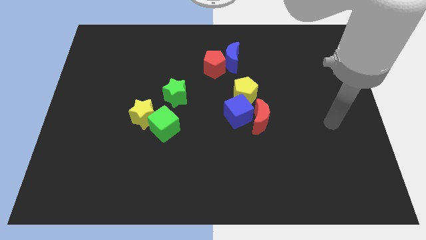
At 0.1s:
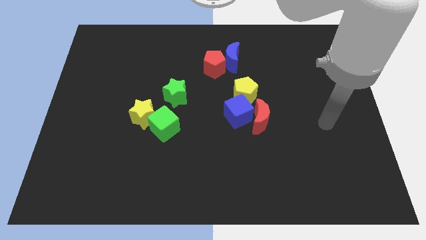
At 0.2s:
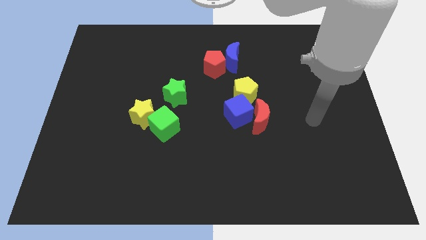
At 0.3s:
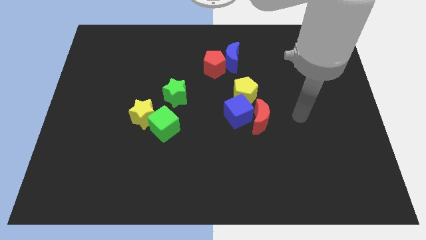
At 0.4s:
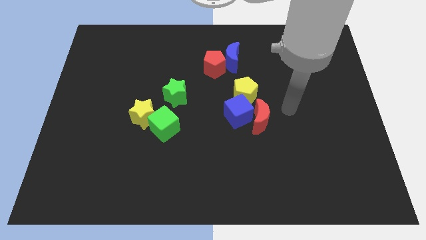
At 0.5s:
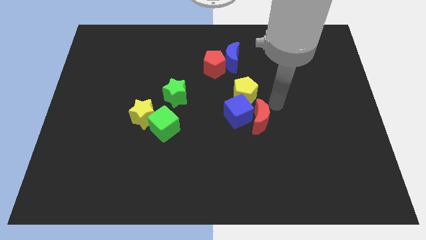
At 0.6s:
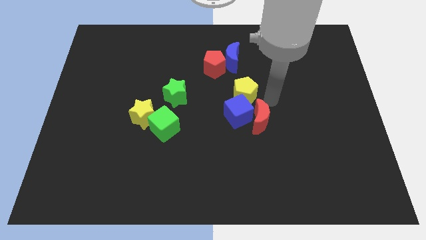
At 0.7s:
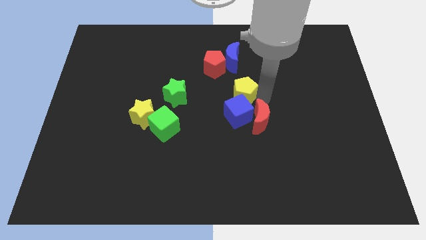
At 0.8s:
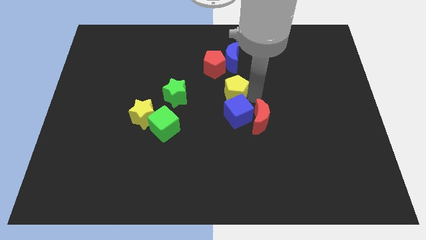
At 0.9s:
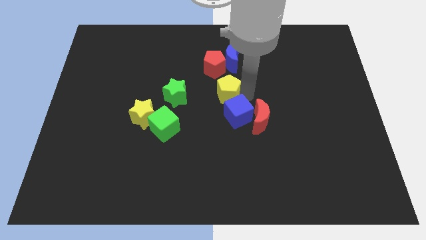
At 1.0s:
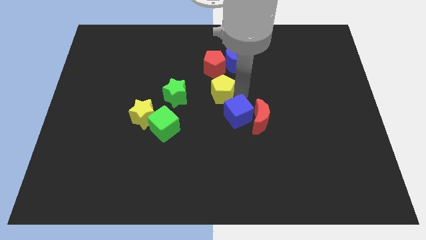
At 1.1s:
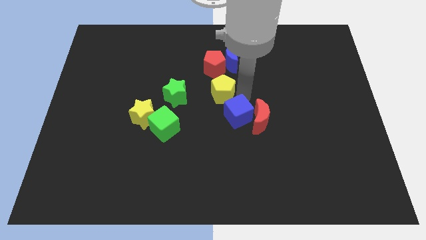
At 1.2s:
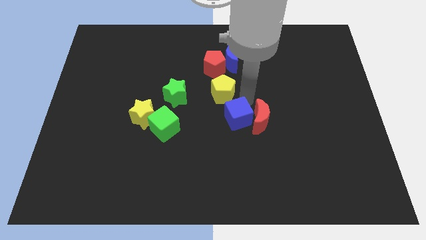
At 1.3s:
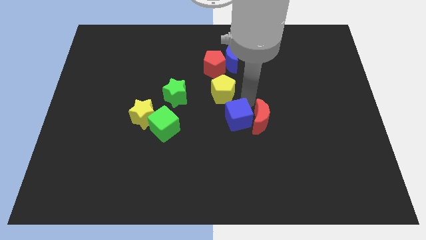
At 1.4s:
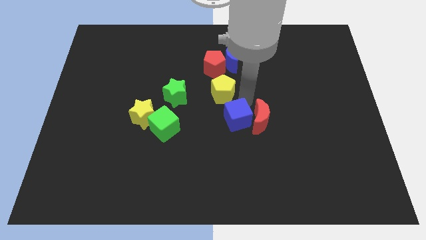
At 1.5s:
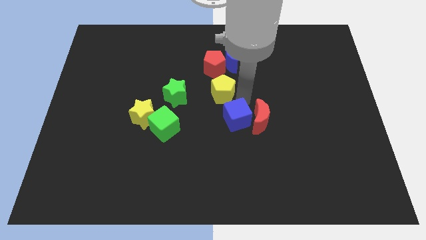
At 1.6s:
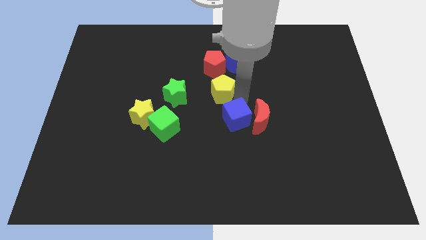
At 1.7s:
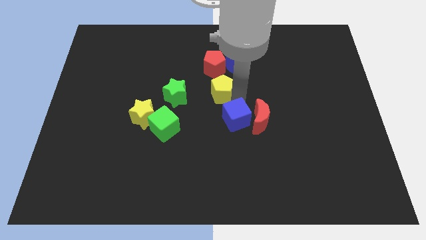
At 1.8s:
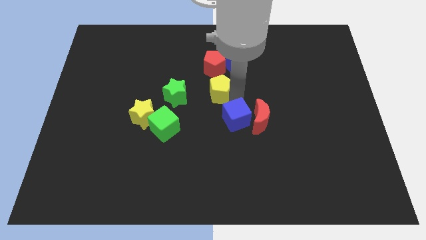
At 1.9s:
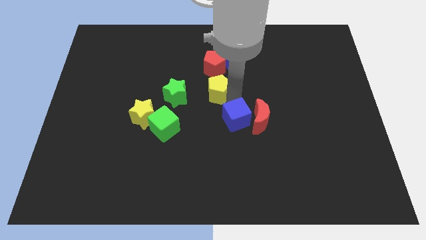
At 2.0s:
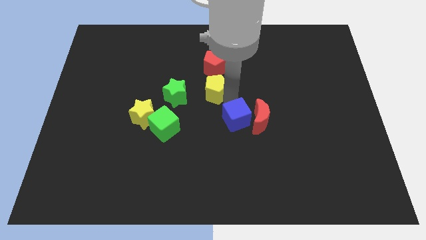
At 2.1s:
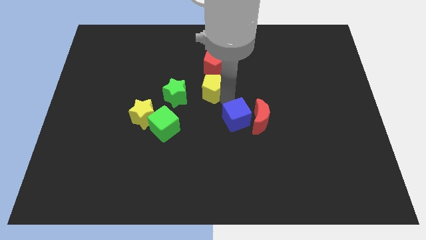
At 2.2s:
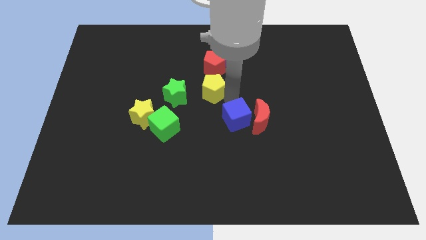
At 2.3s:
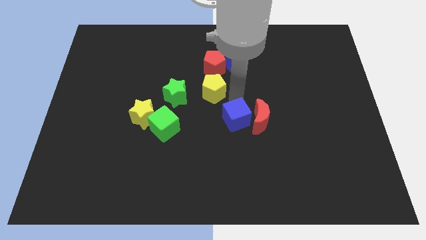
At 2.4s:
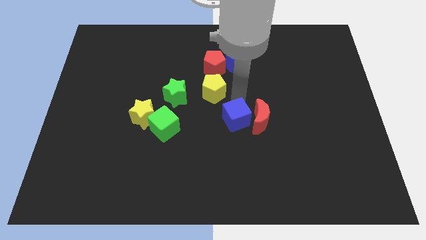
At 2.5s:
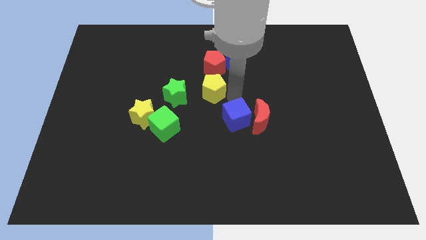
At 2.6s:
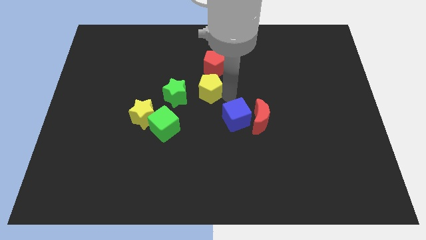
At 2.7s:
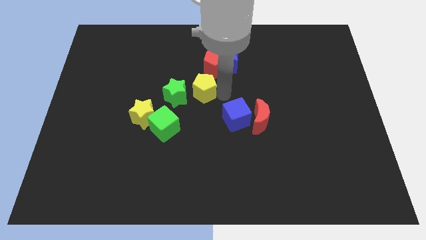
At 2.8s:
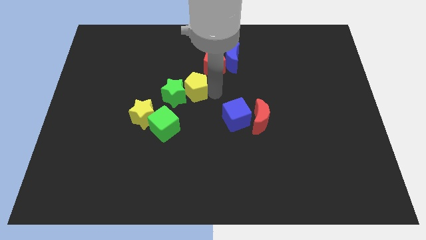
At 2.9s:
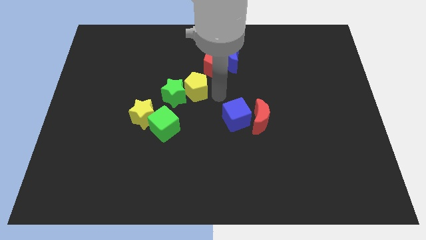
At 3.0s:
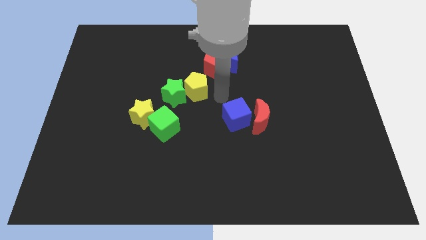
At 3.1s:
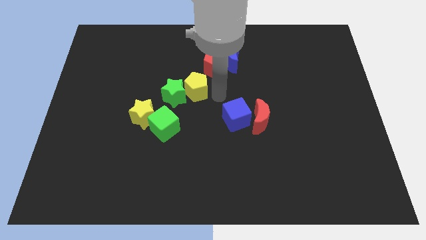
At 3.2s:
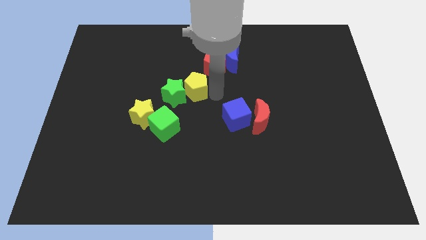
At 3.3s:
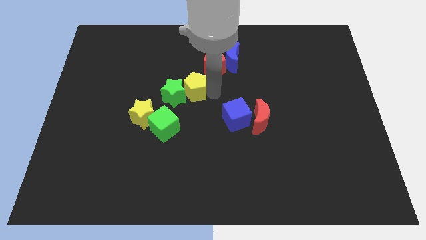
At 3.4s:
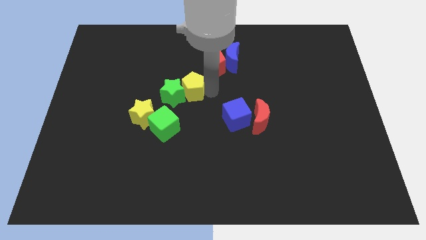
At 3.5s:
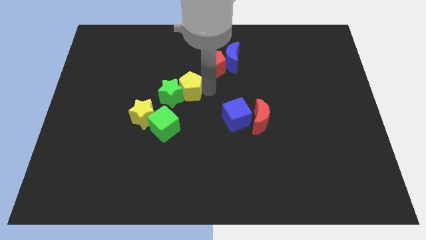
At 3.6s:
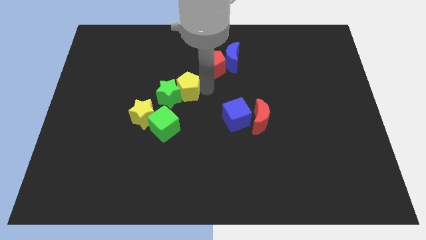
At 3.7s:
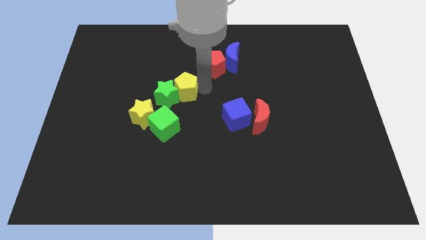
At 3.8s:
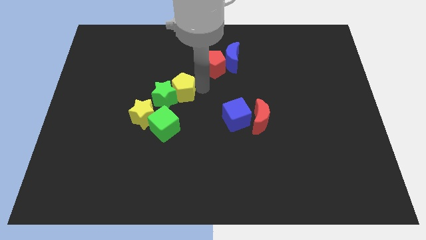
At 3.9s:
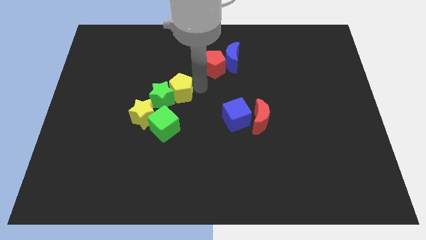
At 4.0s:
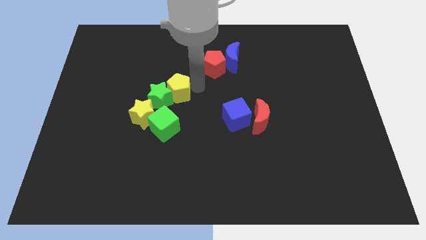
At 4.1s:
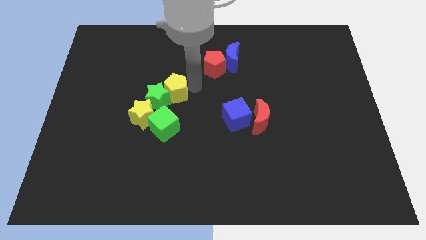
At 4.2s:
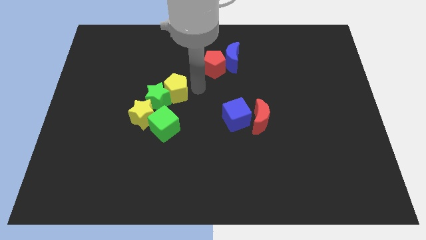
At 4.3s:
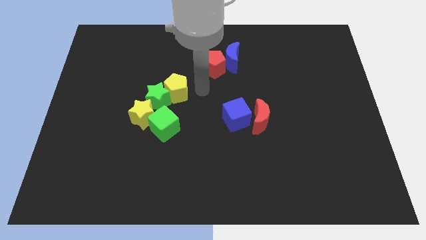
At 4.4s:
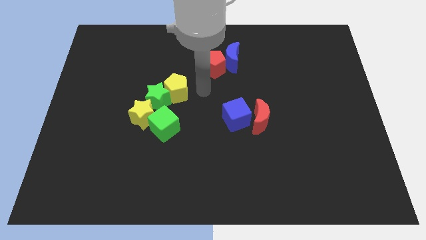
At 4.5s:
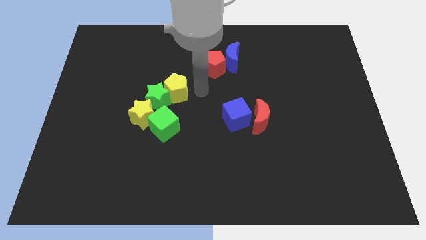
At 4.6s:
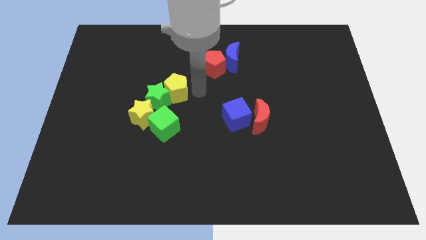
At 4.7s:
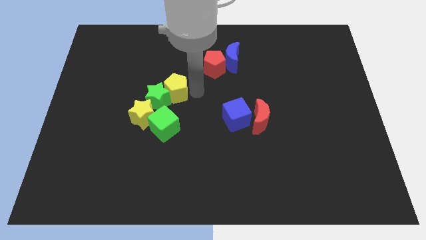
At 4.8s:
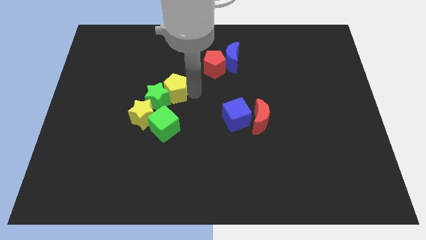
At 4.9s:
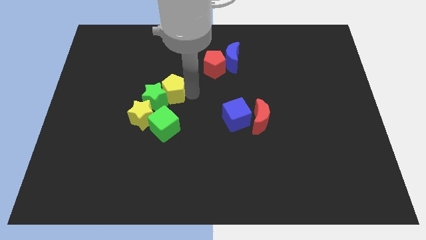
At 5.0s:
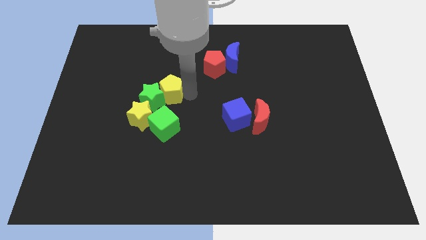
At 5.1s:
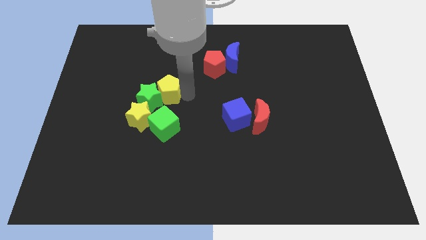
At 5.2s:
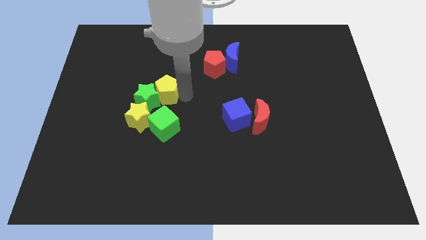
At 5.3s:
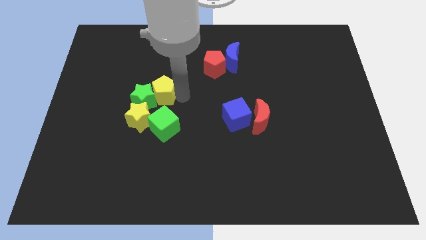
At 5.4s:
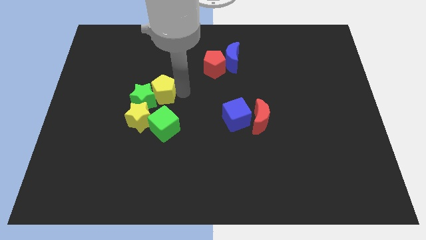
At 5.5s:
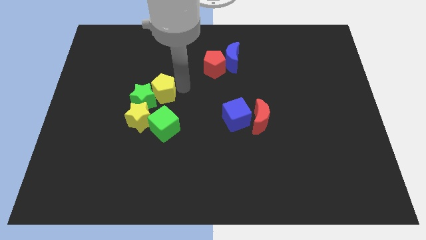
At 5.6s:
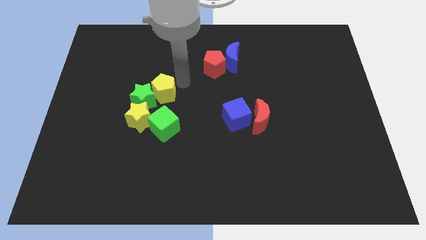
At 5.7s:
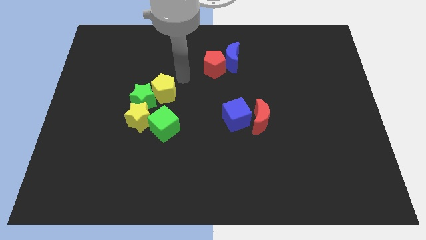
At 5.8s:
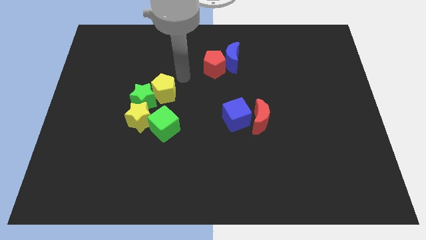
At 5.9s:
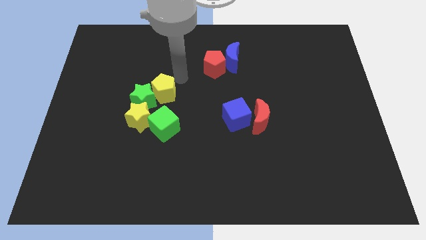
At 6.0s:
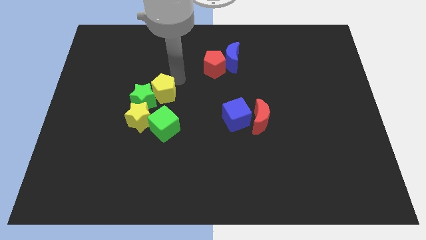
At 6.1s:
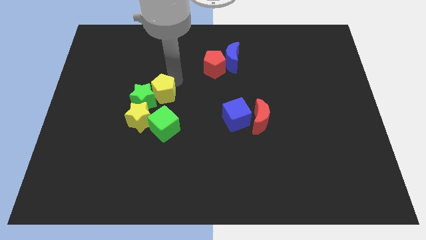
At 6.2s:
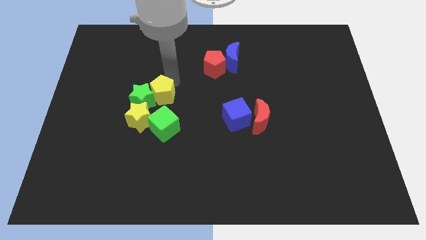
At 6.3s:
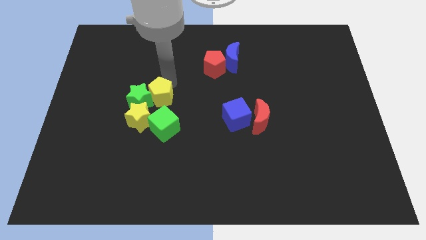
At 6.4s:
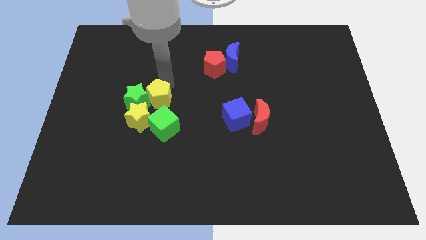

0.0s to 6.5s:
slide the yellow pentagon to the top left of the green cube

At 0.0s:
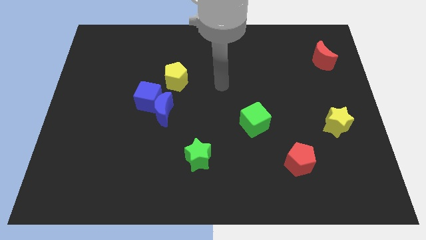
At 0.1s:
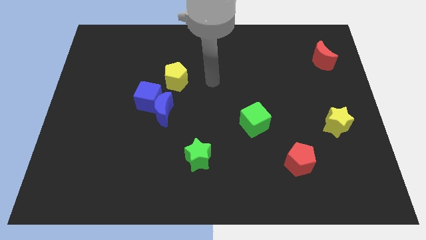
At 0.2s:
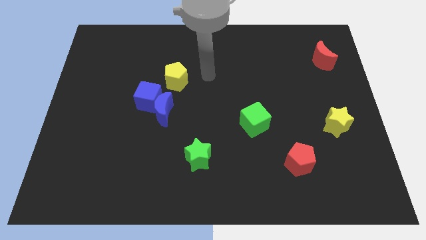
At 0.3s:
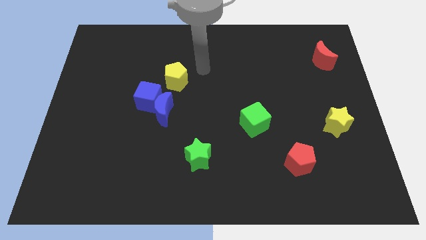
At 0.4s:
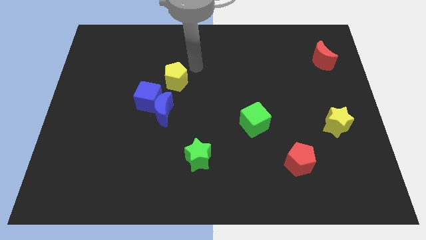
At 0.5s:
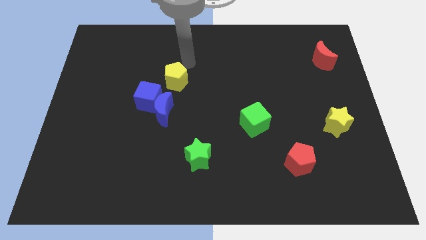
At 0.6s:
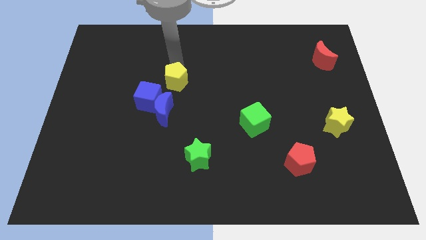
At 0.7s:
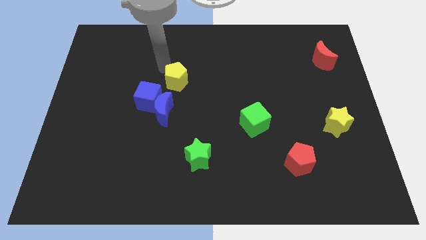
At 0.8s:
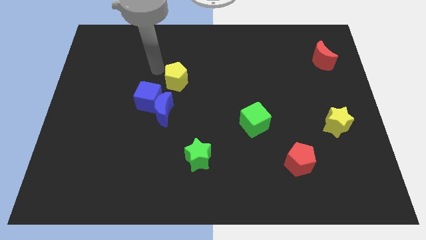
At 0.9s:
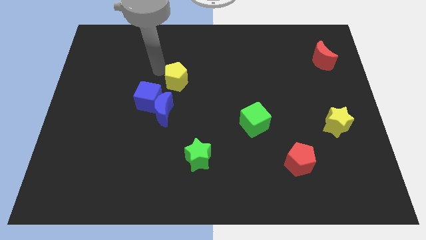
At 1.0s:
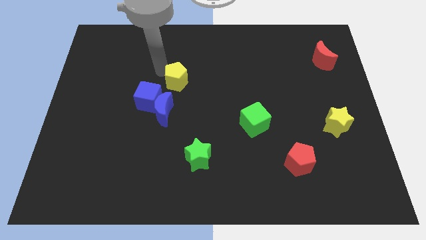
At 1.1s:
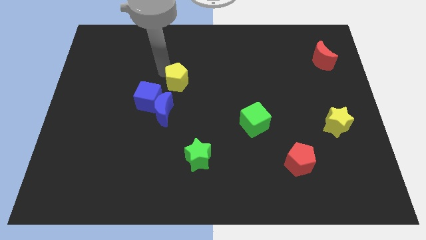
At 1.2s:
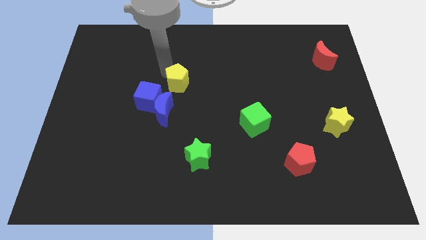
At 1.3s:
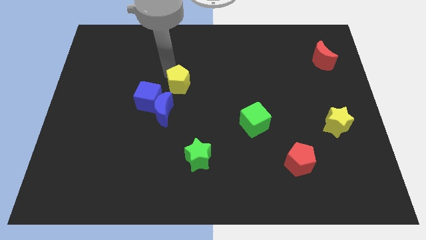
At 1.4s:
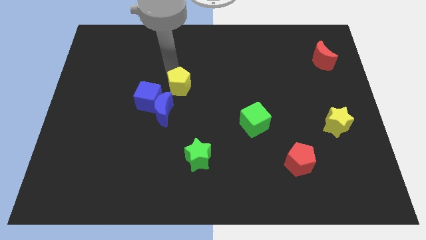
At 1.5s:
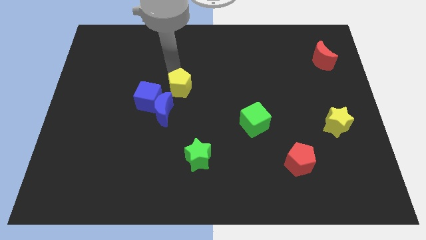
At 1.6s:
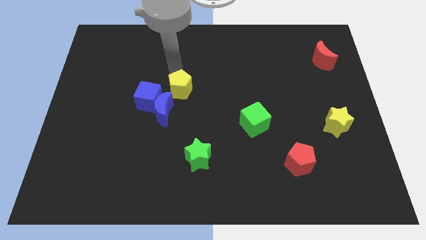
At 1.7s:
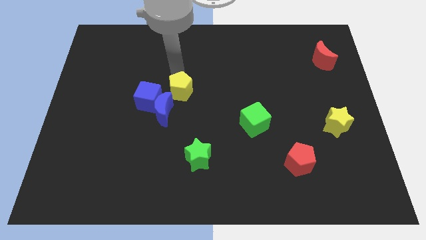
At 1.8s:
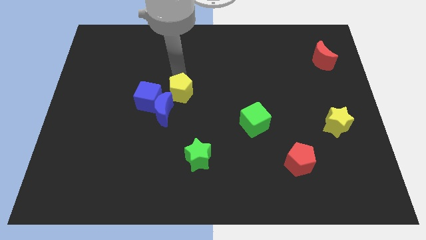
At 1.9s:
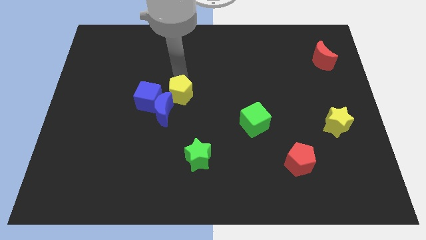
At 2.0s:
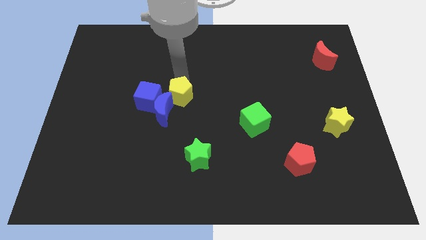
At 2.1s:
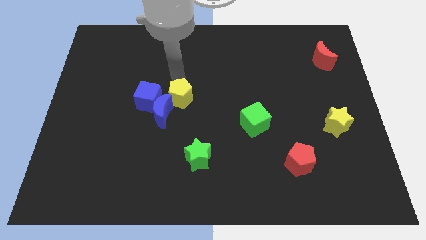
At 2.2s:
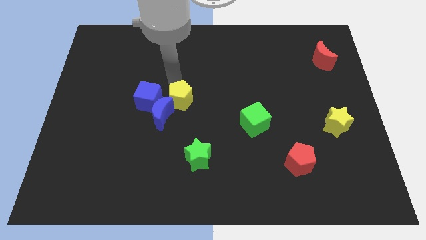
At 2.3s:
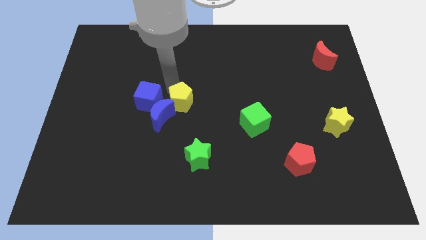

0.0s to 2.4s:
slide the yellow pentagon just right of the blue moon
